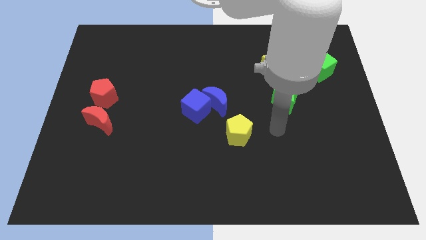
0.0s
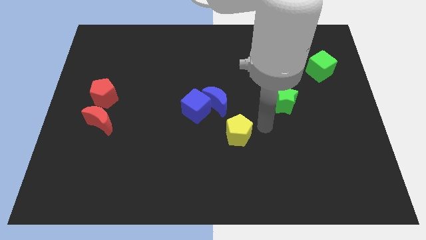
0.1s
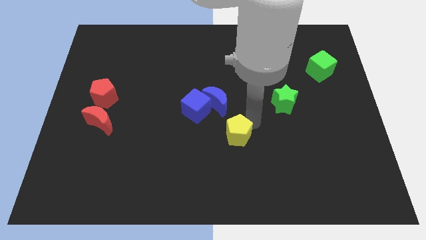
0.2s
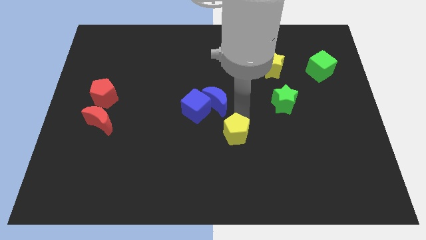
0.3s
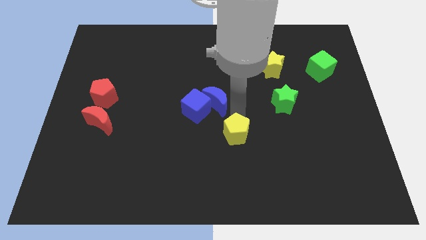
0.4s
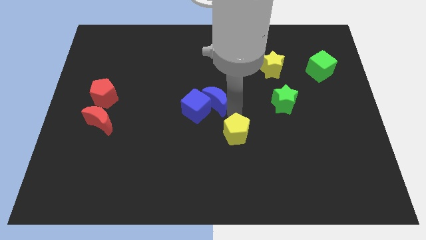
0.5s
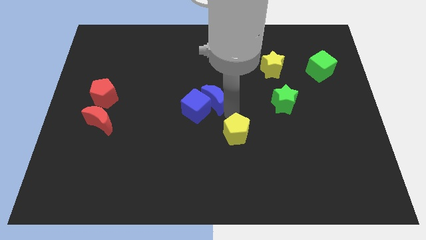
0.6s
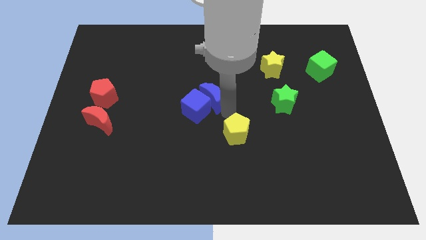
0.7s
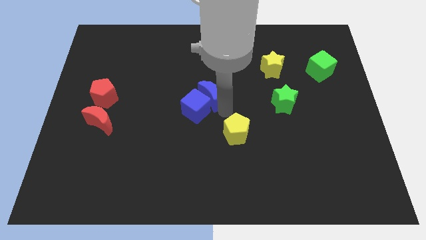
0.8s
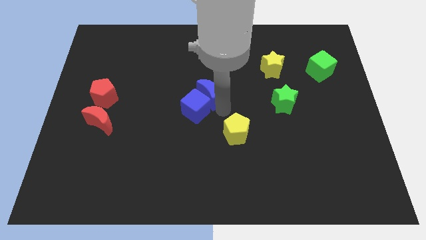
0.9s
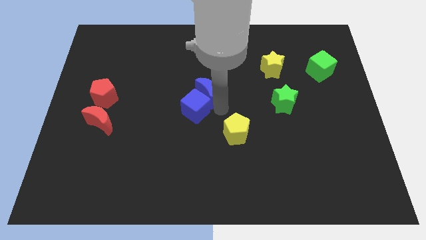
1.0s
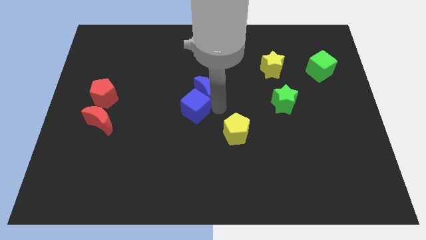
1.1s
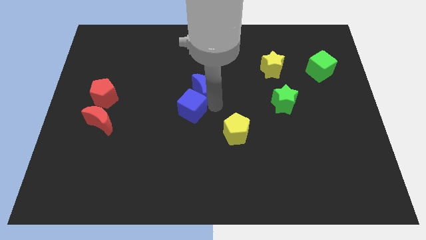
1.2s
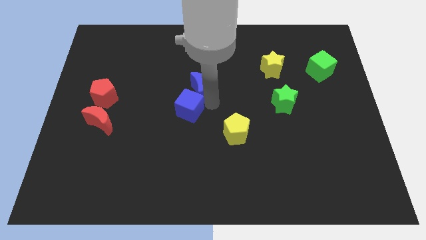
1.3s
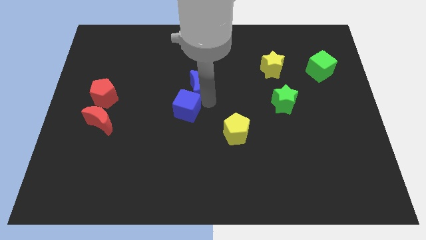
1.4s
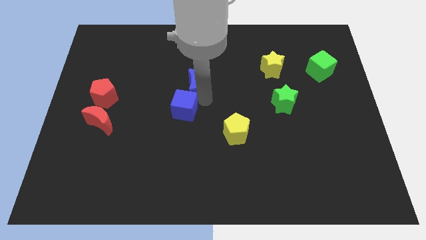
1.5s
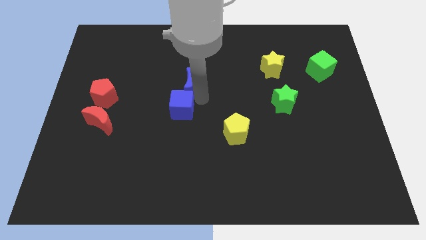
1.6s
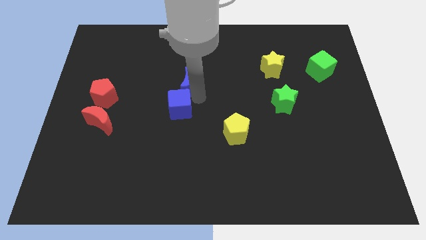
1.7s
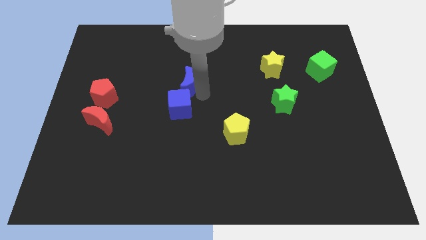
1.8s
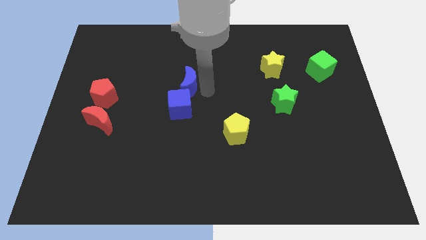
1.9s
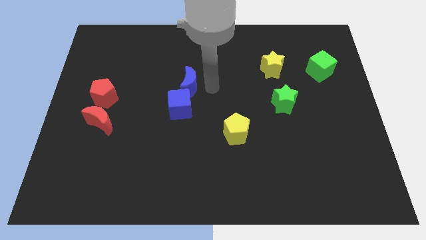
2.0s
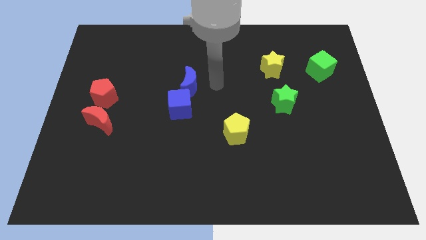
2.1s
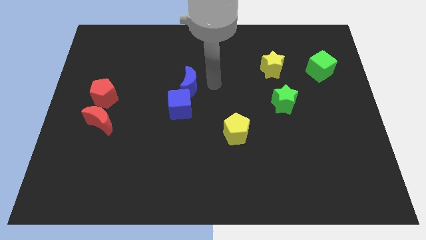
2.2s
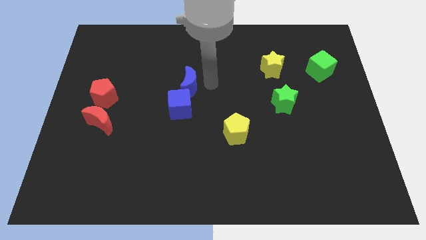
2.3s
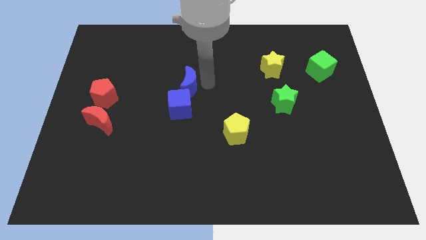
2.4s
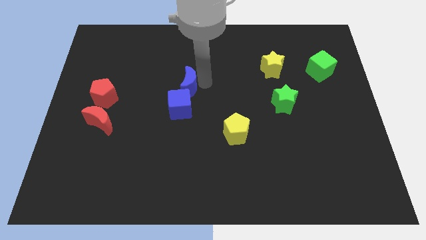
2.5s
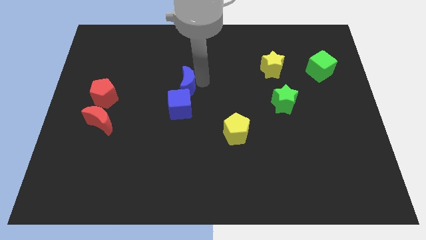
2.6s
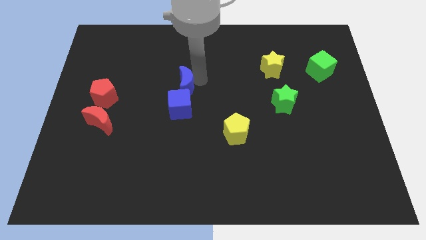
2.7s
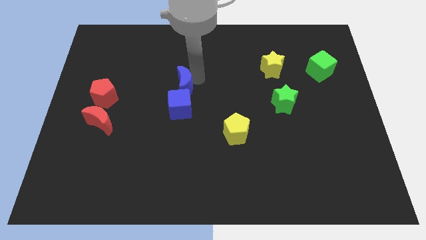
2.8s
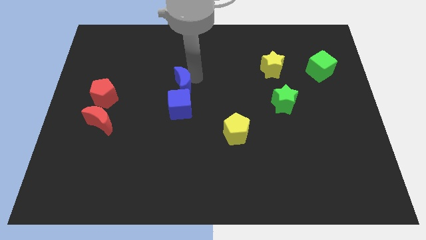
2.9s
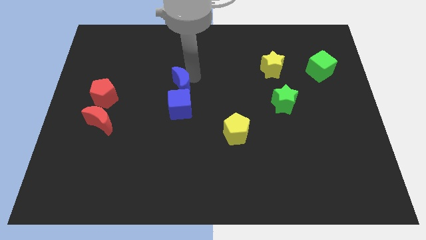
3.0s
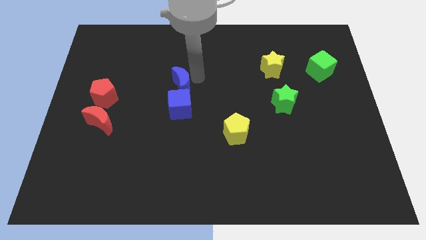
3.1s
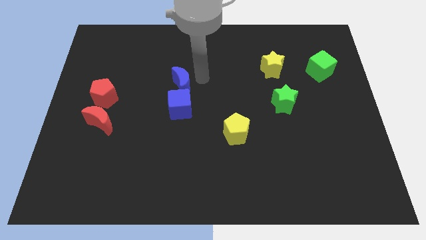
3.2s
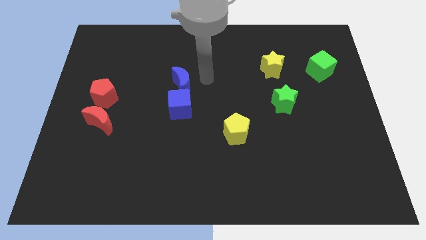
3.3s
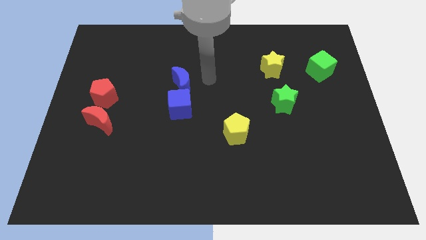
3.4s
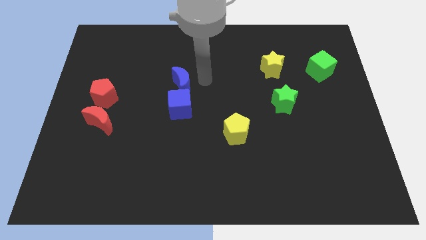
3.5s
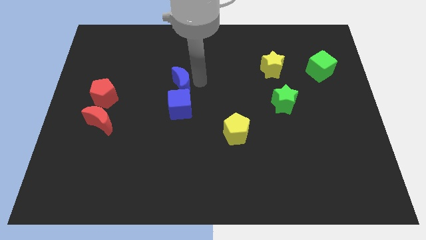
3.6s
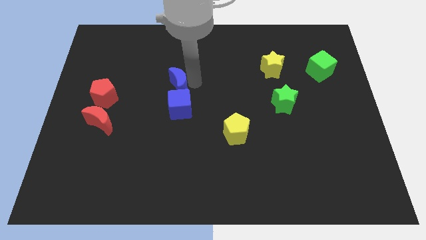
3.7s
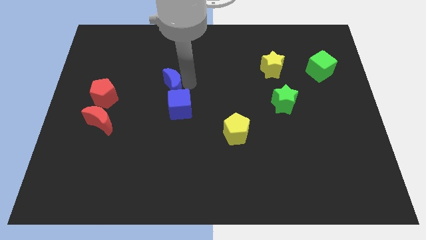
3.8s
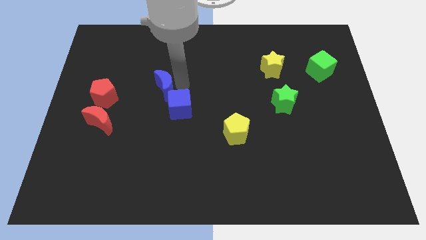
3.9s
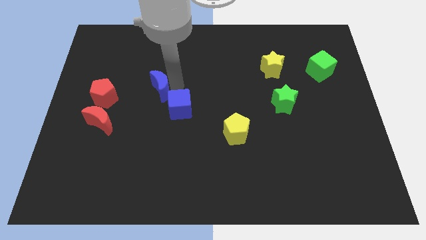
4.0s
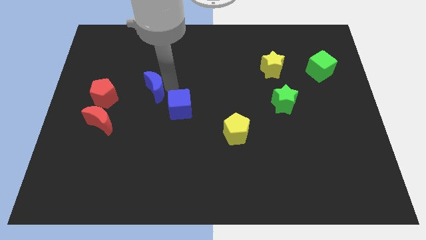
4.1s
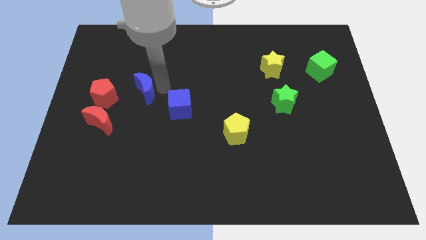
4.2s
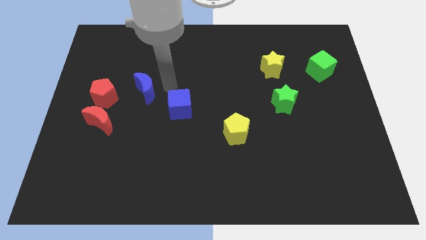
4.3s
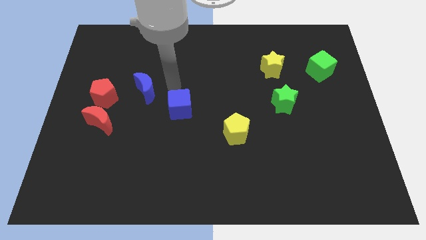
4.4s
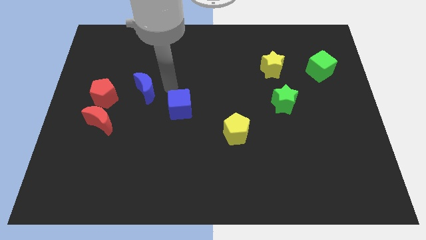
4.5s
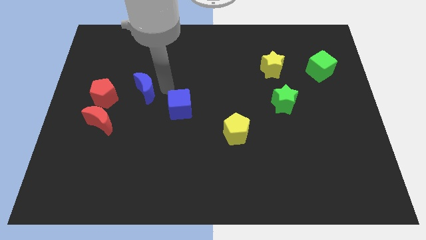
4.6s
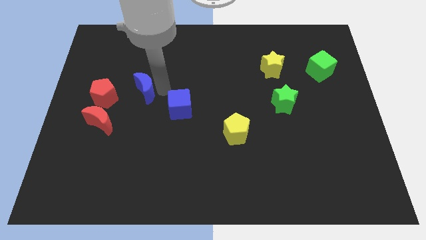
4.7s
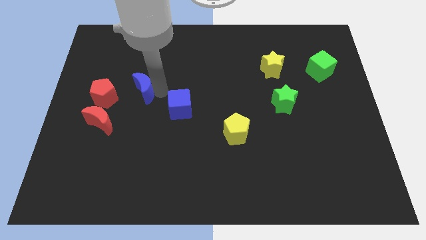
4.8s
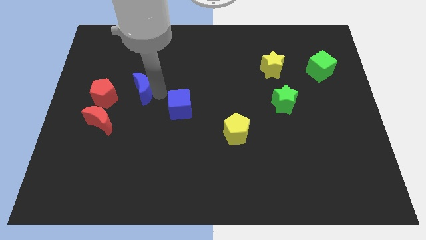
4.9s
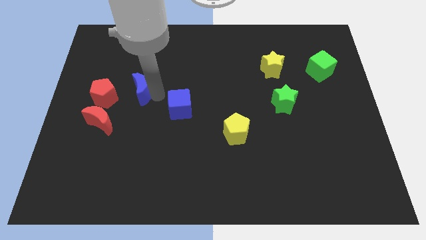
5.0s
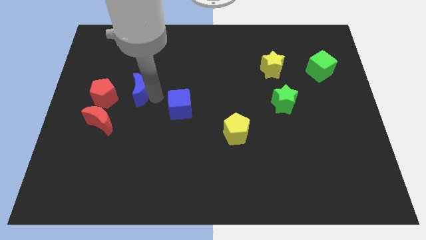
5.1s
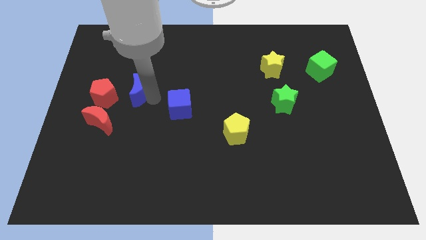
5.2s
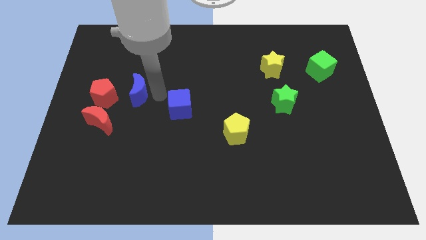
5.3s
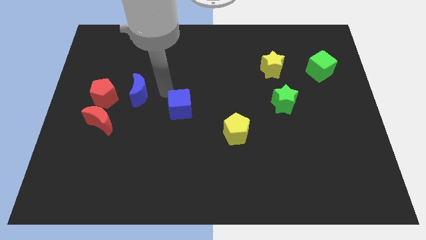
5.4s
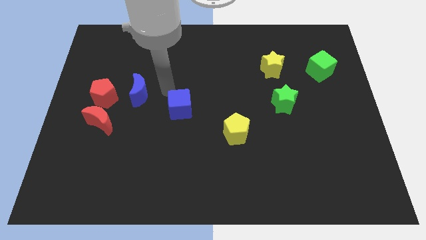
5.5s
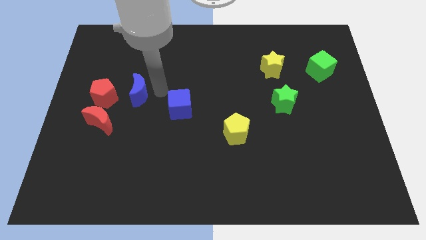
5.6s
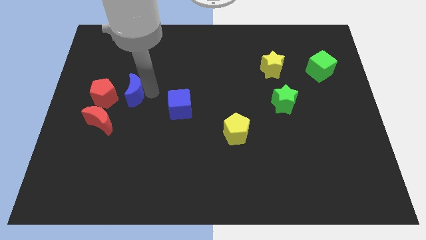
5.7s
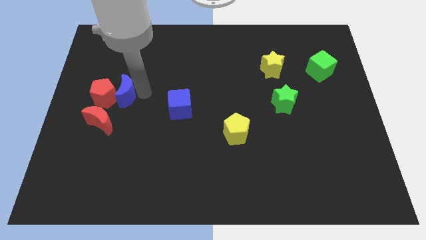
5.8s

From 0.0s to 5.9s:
move the blue moon towards the red pentagon

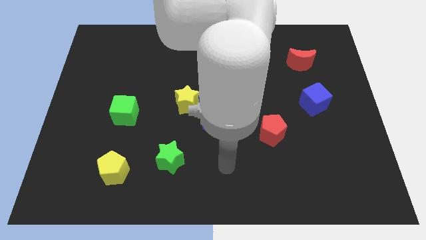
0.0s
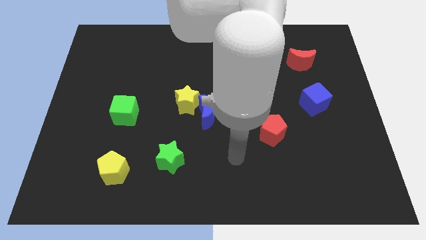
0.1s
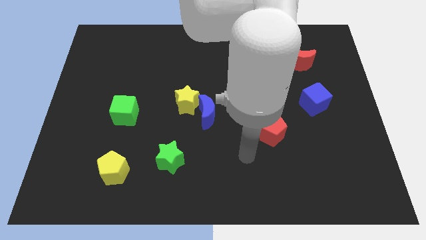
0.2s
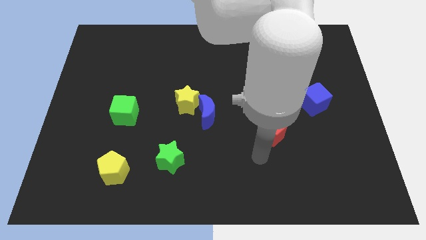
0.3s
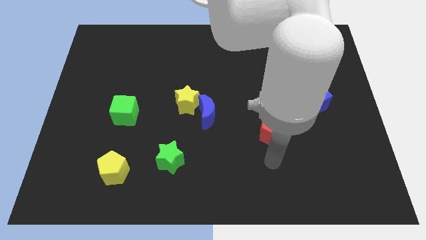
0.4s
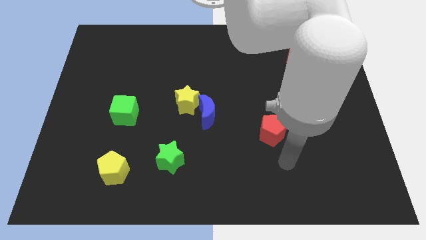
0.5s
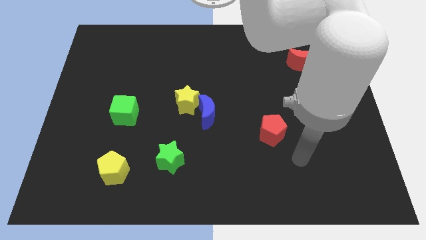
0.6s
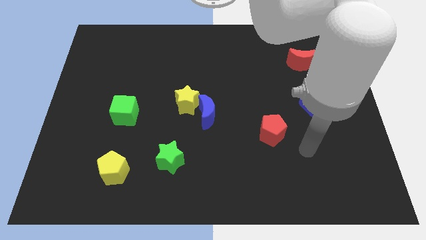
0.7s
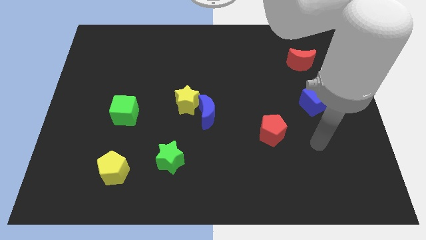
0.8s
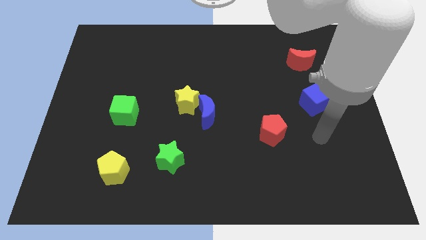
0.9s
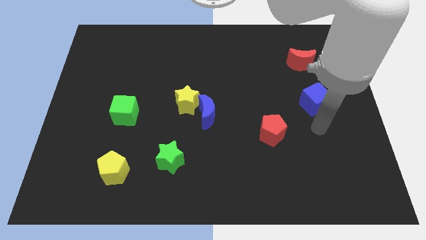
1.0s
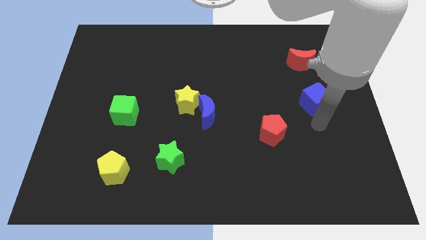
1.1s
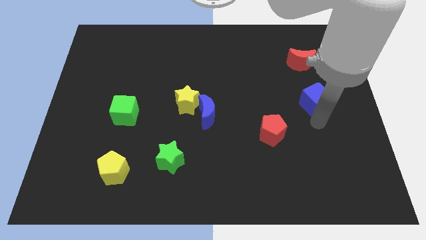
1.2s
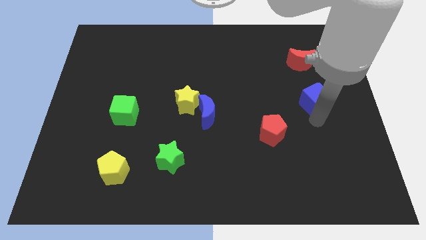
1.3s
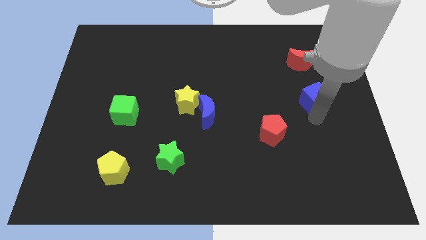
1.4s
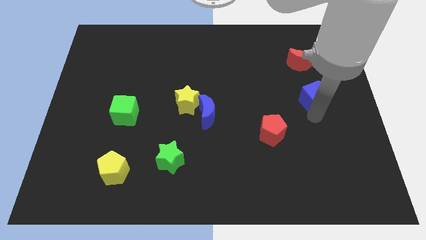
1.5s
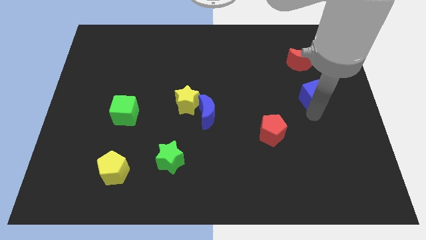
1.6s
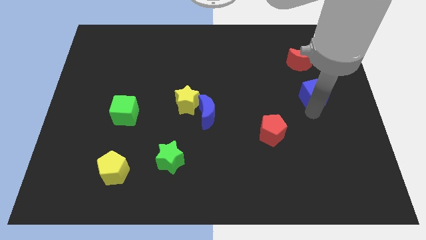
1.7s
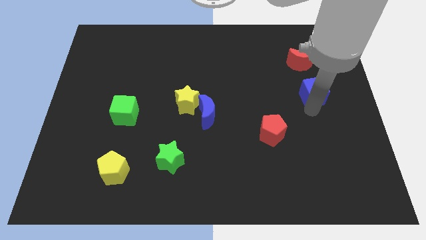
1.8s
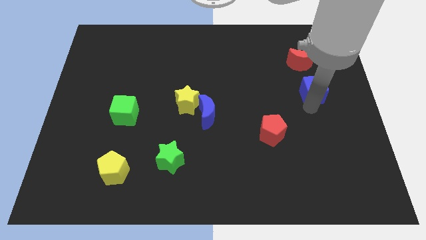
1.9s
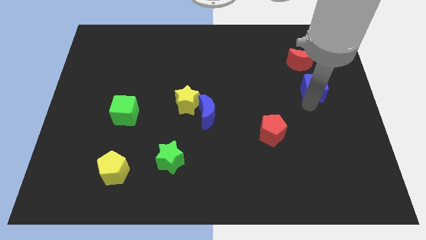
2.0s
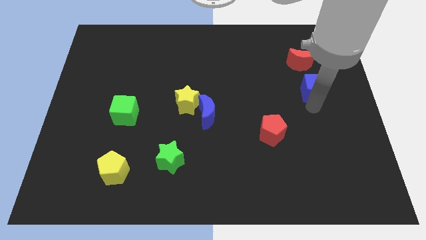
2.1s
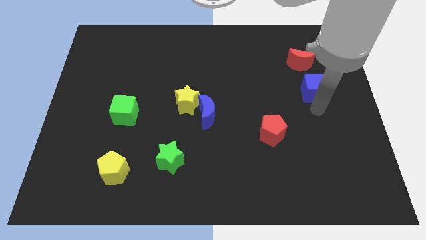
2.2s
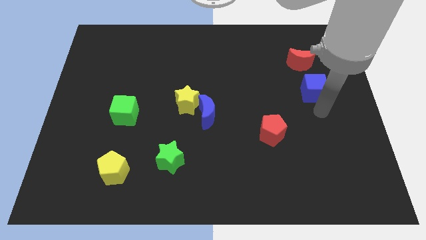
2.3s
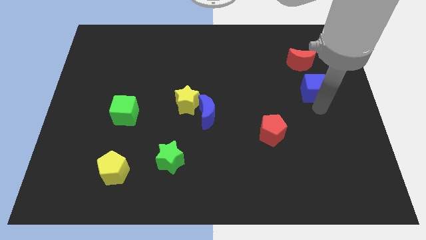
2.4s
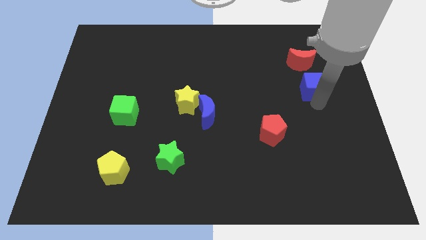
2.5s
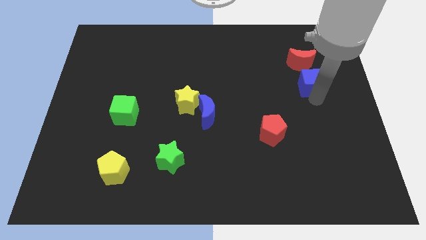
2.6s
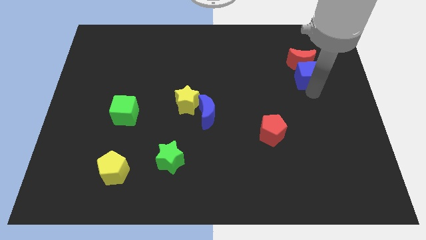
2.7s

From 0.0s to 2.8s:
slide the blue cube towards the red moon
